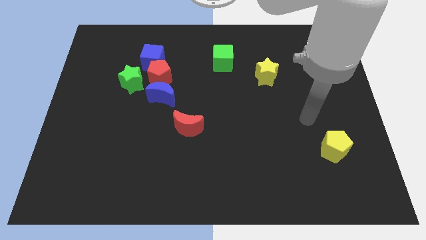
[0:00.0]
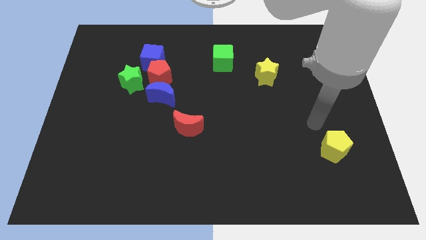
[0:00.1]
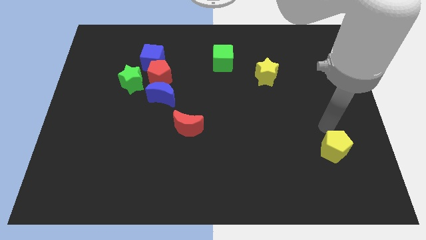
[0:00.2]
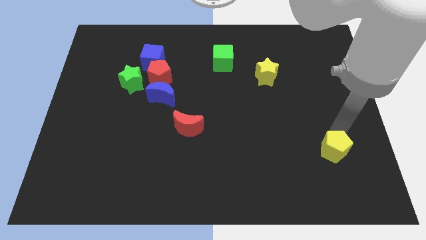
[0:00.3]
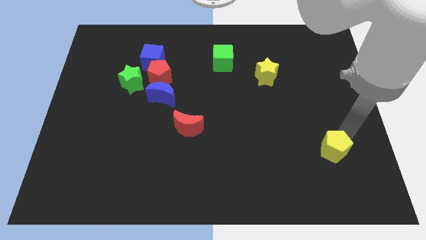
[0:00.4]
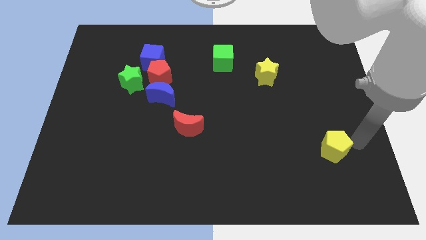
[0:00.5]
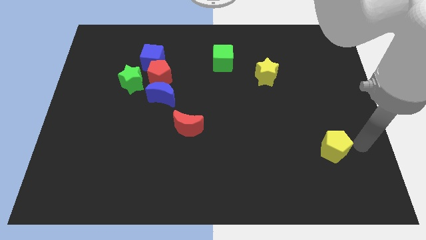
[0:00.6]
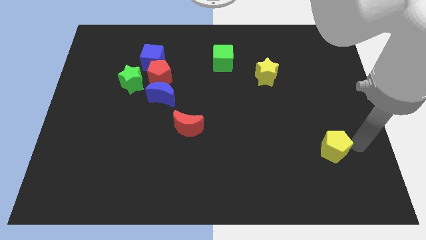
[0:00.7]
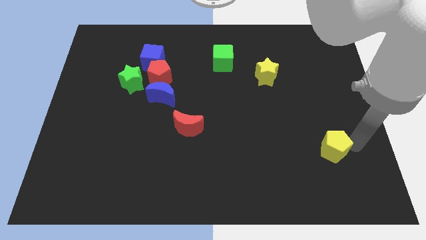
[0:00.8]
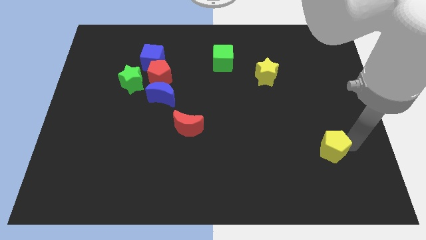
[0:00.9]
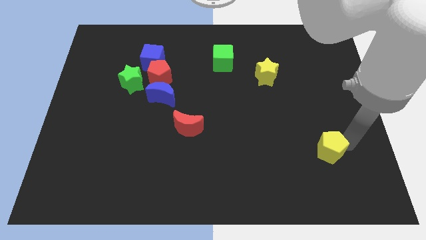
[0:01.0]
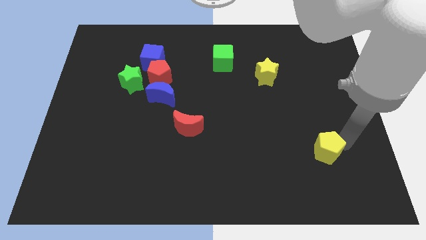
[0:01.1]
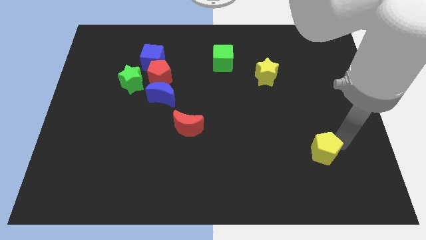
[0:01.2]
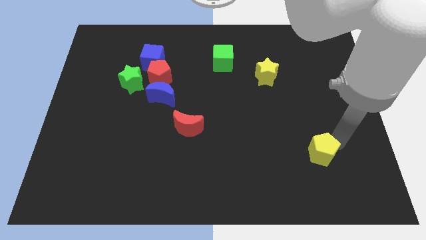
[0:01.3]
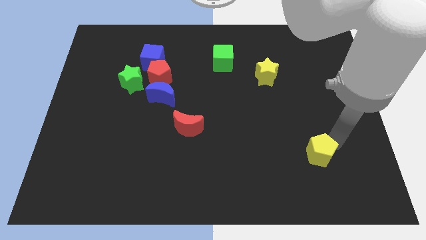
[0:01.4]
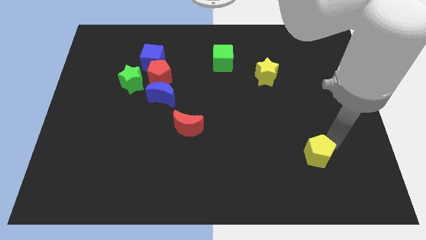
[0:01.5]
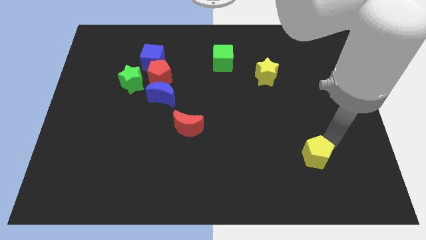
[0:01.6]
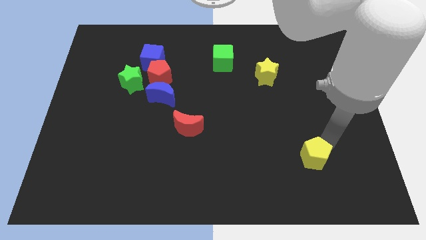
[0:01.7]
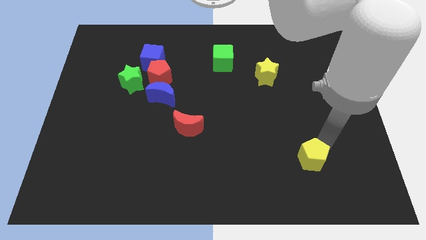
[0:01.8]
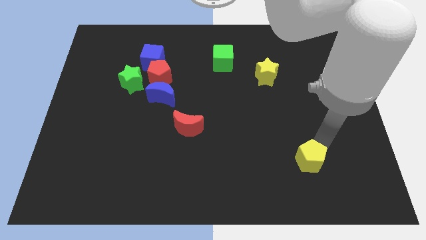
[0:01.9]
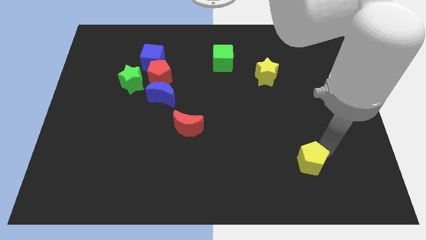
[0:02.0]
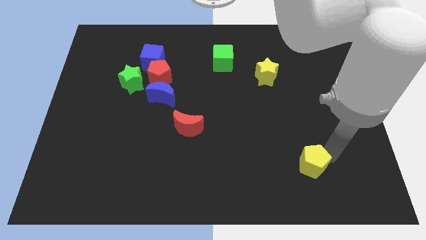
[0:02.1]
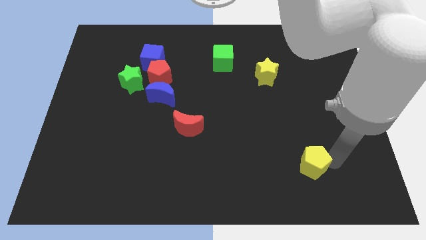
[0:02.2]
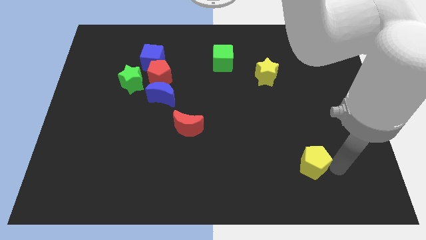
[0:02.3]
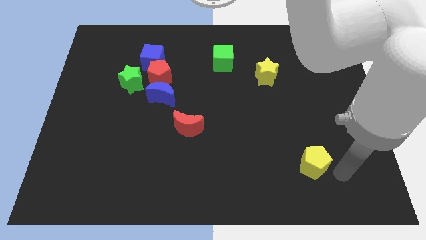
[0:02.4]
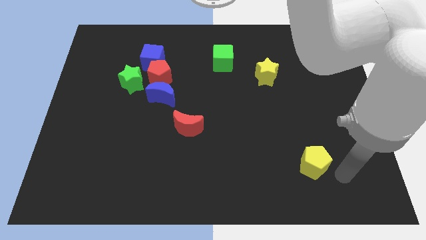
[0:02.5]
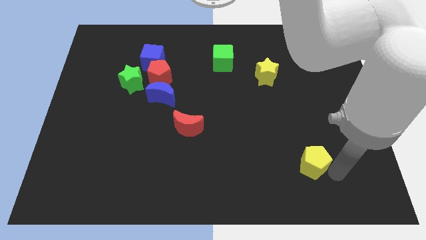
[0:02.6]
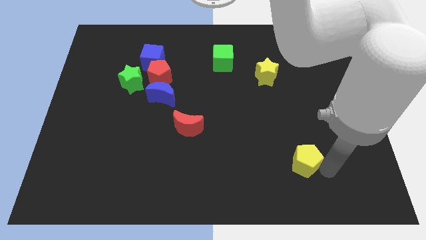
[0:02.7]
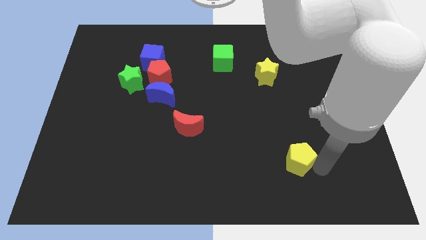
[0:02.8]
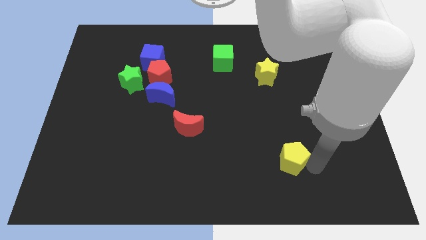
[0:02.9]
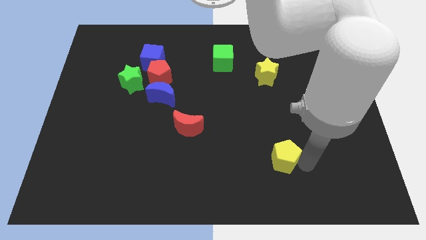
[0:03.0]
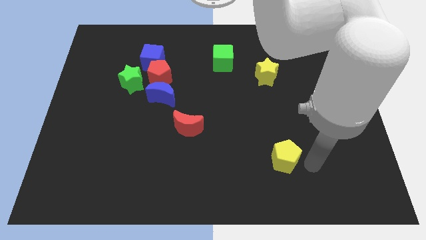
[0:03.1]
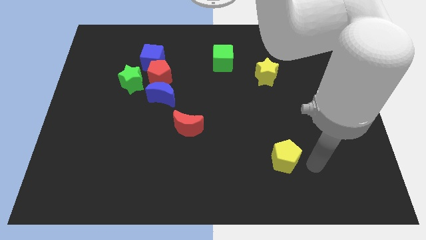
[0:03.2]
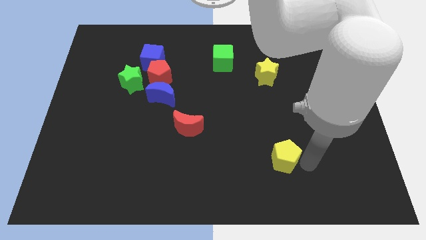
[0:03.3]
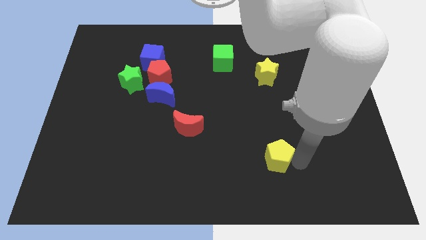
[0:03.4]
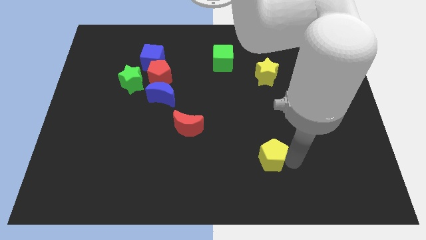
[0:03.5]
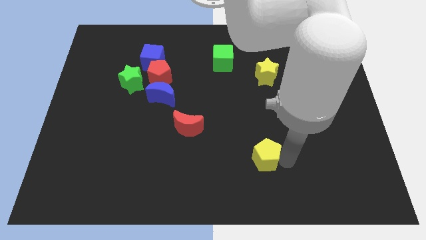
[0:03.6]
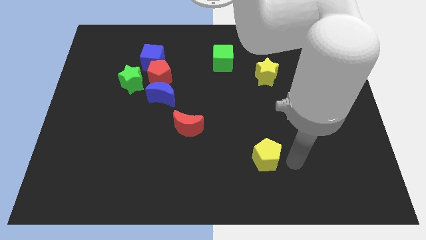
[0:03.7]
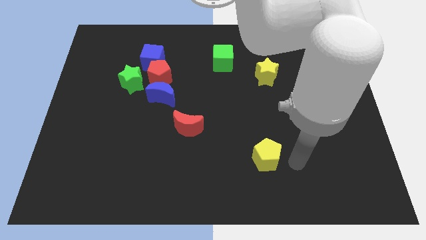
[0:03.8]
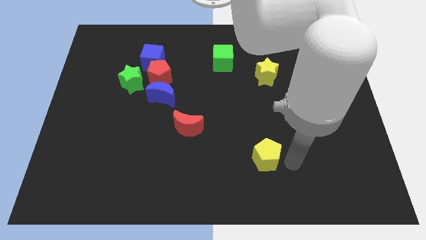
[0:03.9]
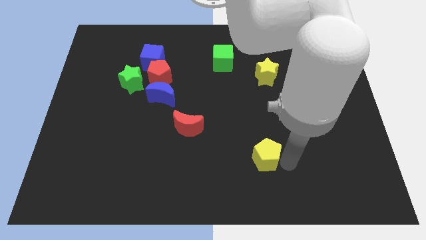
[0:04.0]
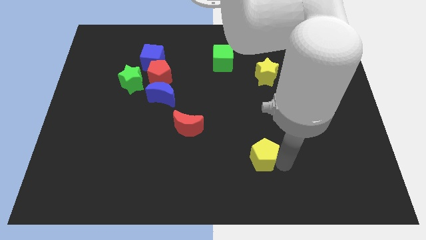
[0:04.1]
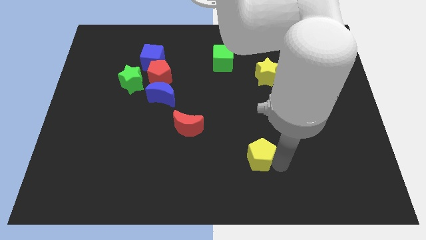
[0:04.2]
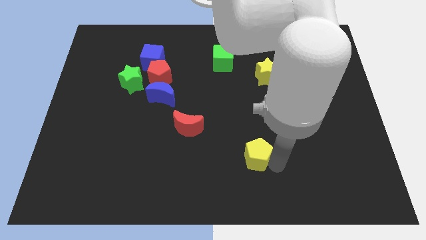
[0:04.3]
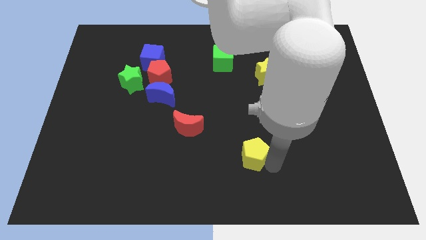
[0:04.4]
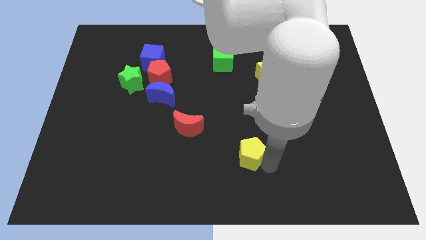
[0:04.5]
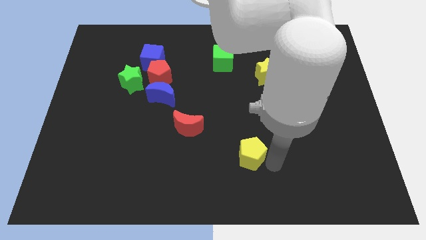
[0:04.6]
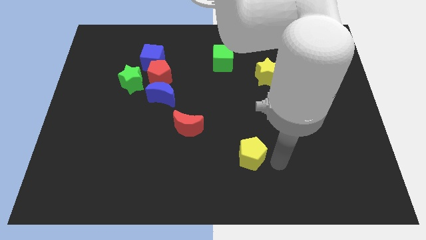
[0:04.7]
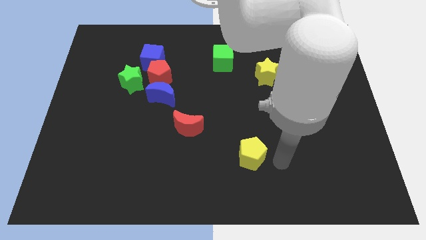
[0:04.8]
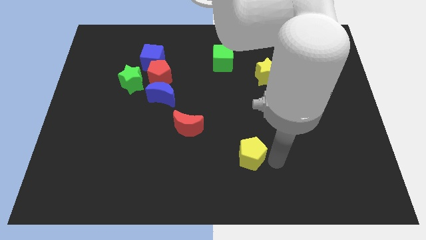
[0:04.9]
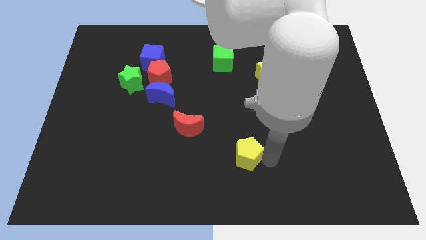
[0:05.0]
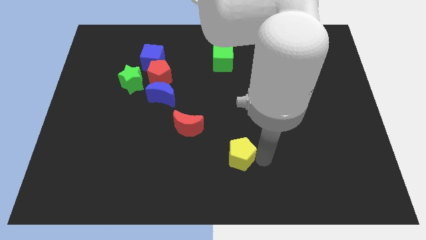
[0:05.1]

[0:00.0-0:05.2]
move the yellow pentagon to the left

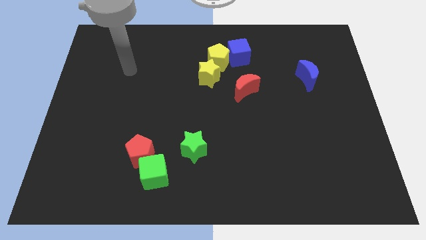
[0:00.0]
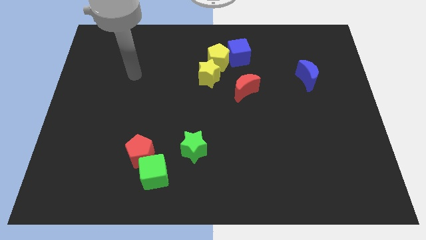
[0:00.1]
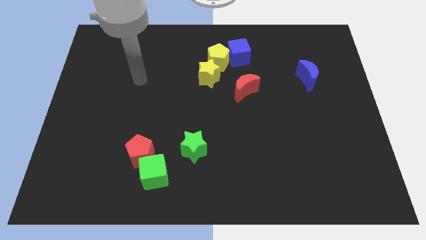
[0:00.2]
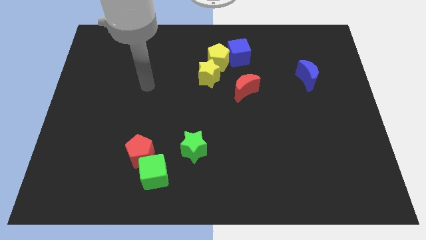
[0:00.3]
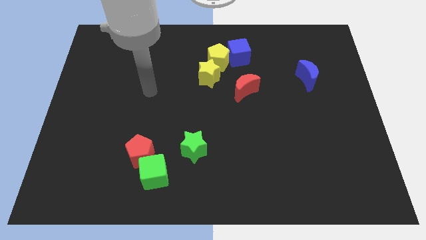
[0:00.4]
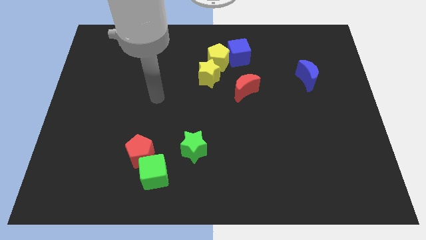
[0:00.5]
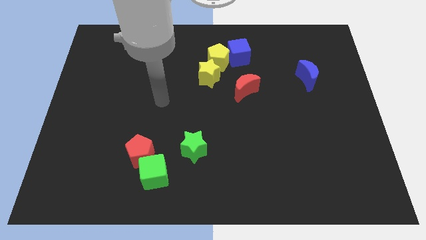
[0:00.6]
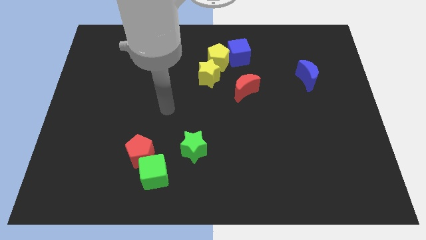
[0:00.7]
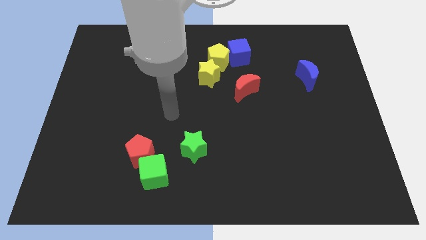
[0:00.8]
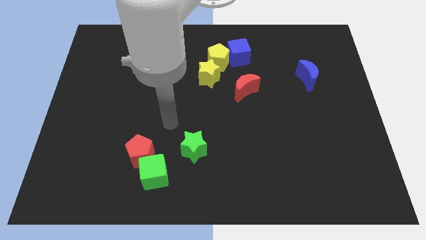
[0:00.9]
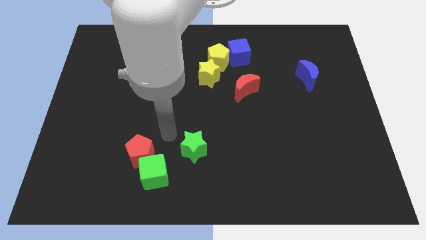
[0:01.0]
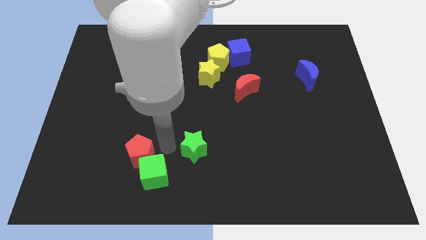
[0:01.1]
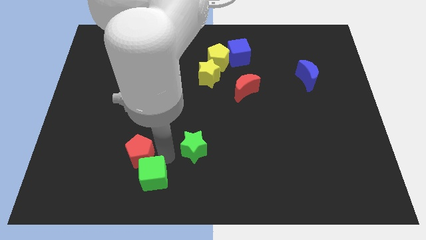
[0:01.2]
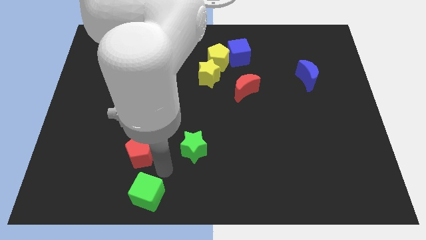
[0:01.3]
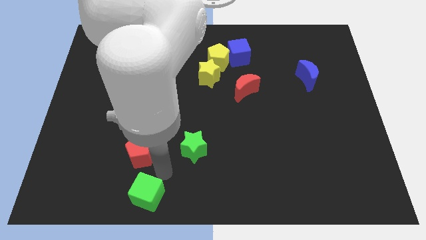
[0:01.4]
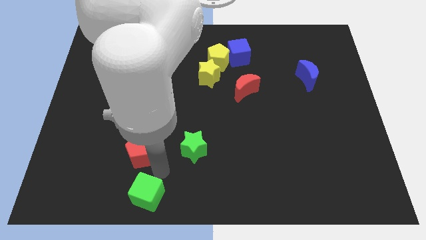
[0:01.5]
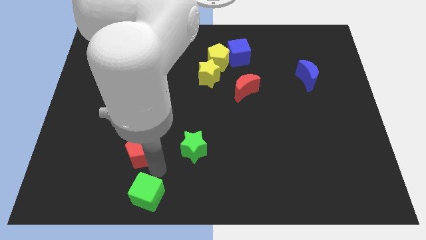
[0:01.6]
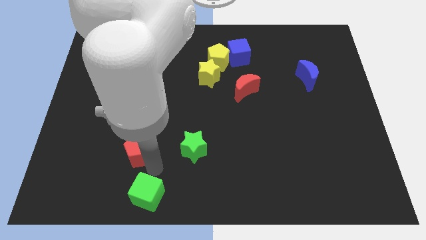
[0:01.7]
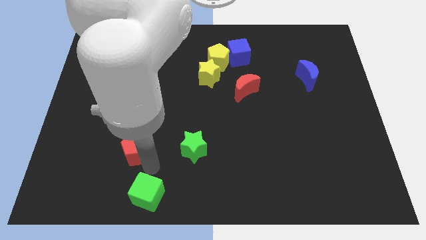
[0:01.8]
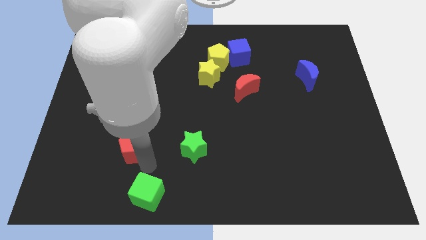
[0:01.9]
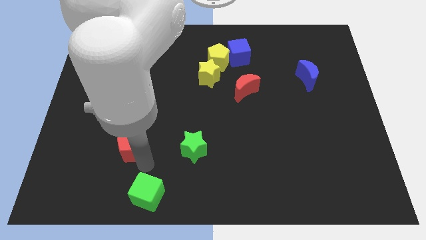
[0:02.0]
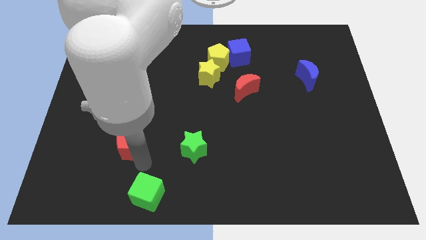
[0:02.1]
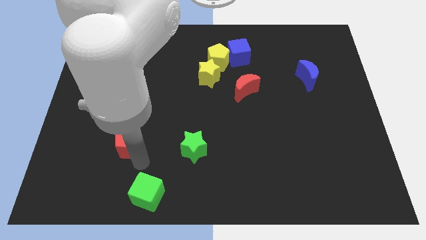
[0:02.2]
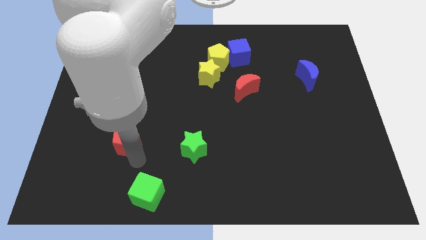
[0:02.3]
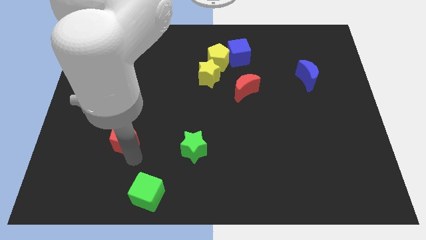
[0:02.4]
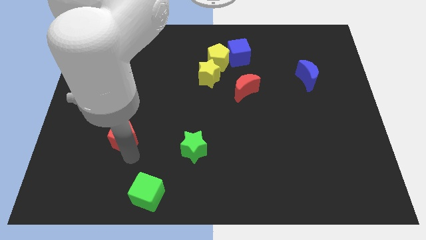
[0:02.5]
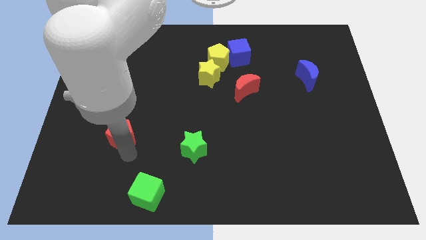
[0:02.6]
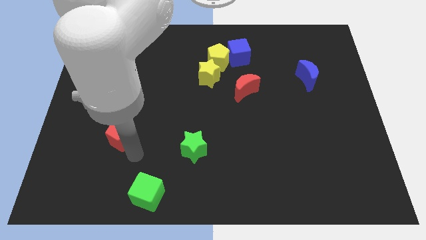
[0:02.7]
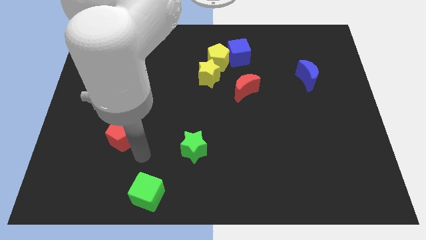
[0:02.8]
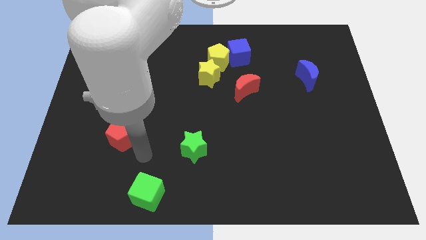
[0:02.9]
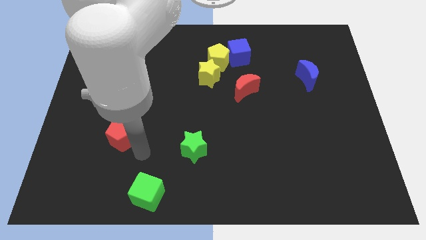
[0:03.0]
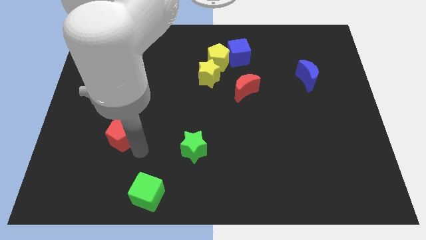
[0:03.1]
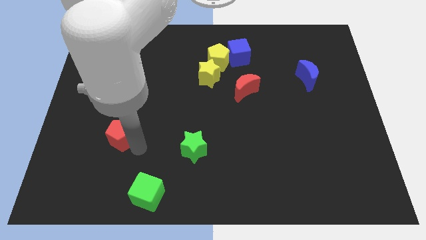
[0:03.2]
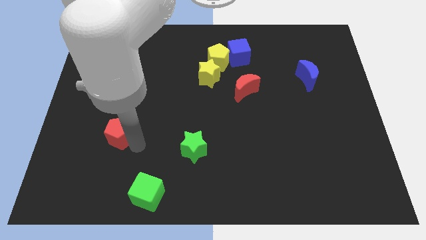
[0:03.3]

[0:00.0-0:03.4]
slightly push the red pentagon up and then to the left
